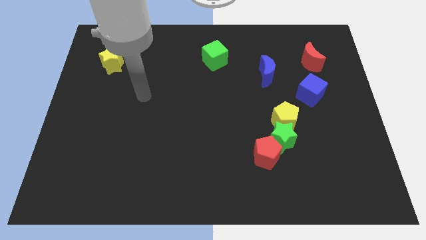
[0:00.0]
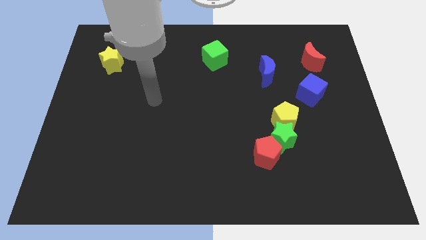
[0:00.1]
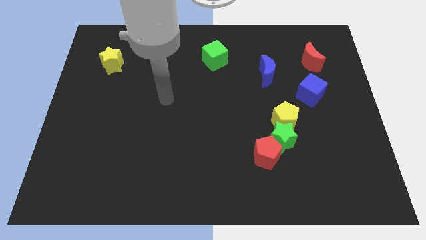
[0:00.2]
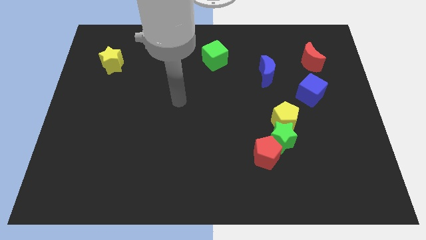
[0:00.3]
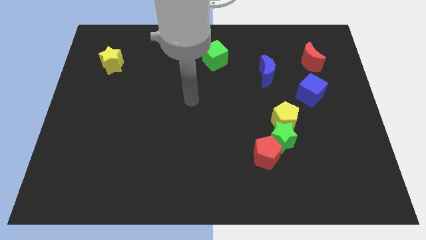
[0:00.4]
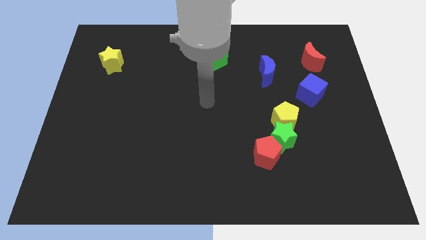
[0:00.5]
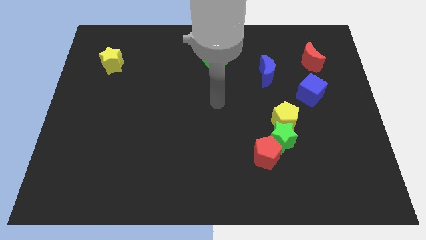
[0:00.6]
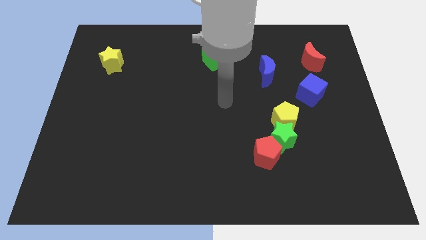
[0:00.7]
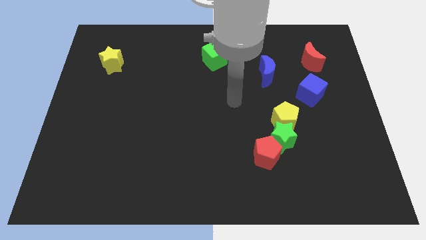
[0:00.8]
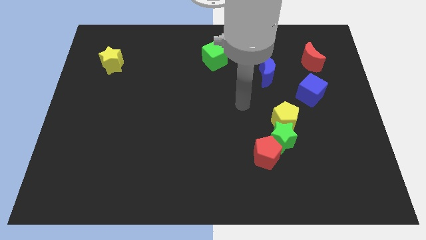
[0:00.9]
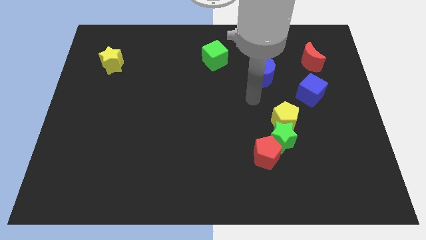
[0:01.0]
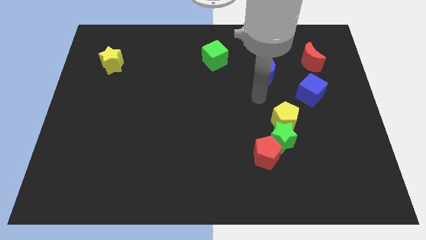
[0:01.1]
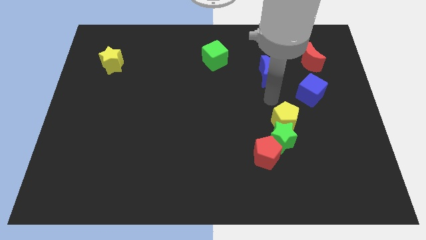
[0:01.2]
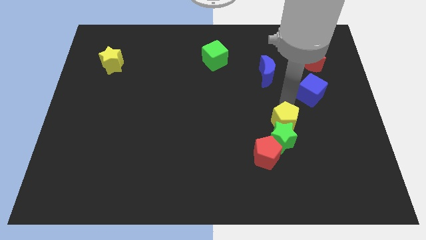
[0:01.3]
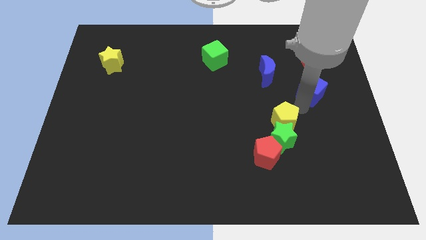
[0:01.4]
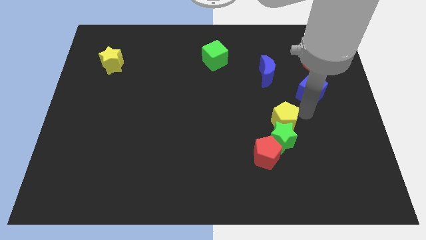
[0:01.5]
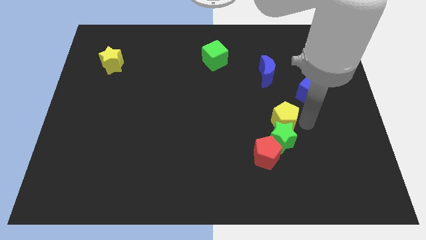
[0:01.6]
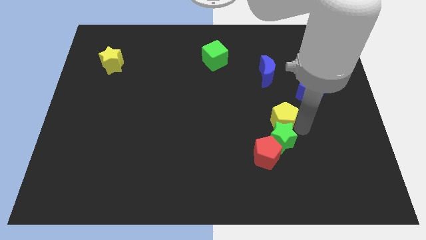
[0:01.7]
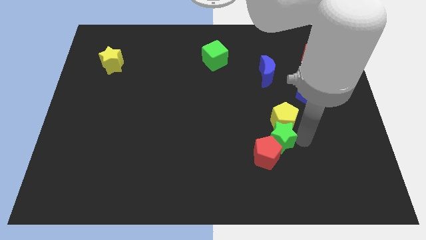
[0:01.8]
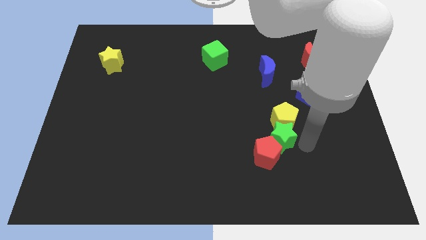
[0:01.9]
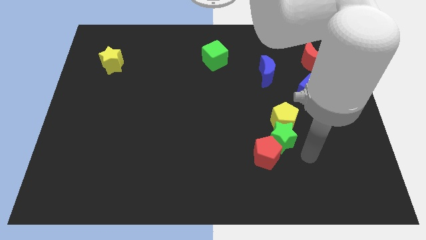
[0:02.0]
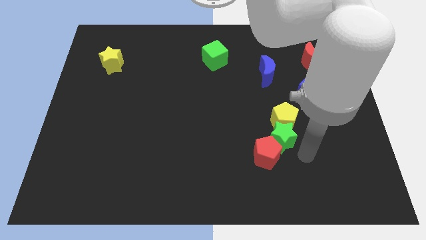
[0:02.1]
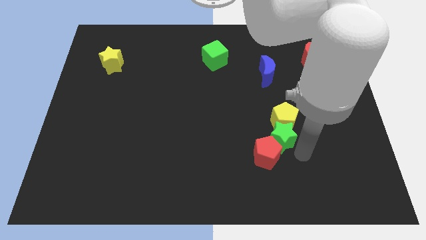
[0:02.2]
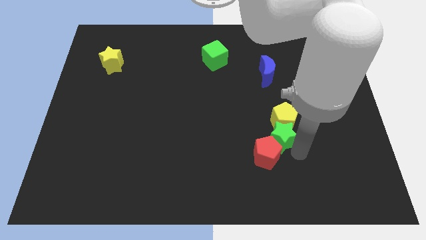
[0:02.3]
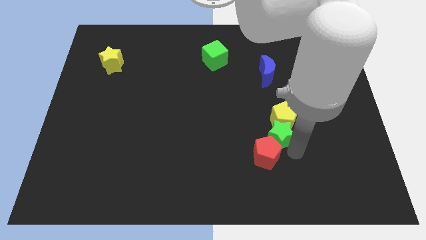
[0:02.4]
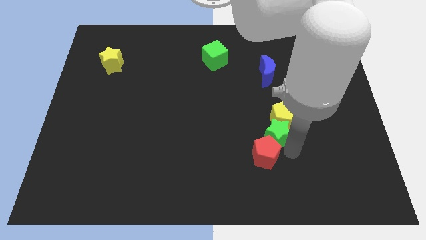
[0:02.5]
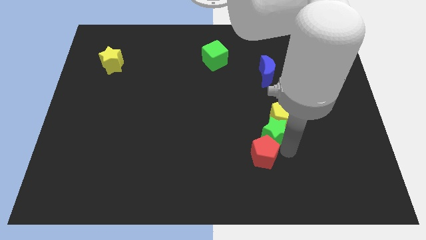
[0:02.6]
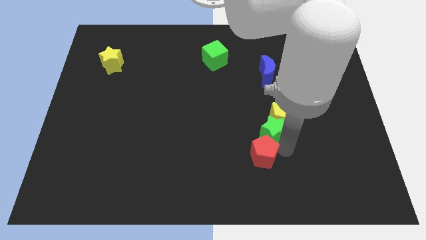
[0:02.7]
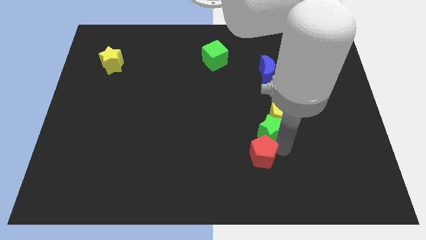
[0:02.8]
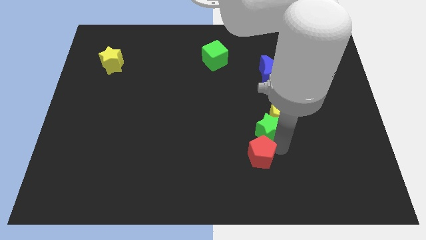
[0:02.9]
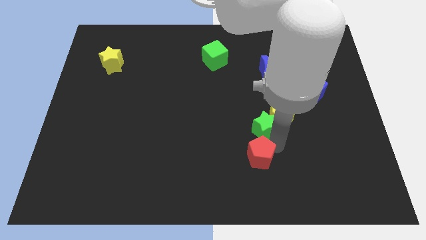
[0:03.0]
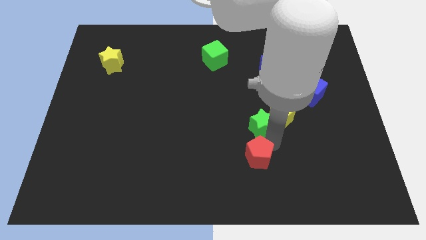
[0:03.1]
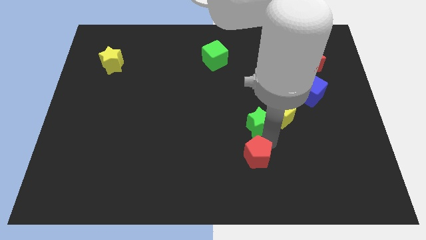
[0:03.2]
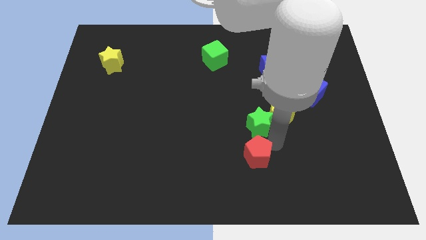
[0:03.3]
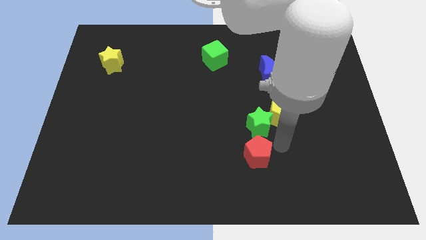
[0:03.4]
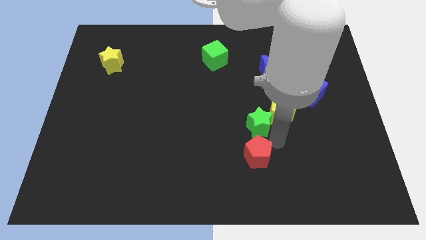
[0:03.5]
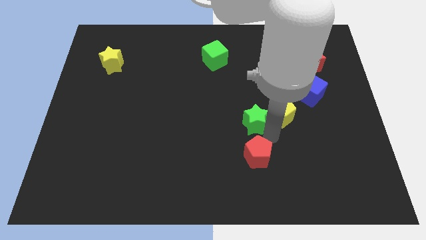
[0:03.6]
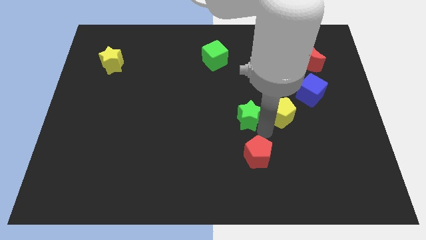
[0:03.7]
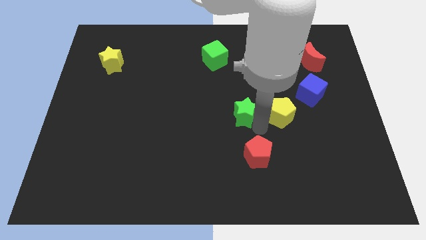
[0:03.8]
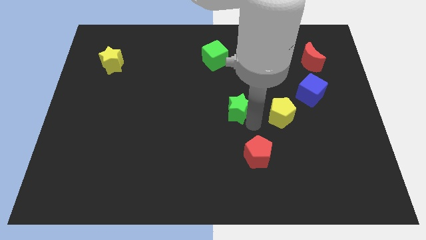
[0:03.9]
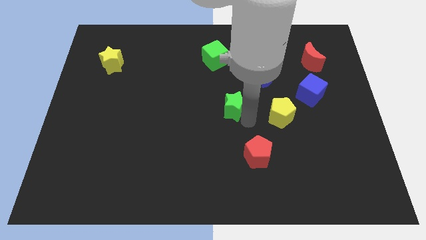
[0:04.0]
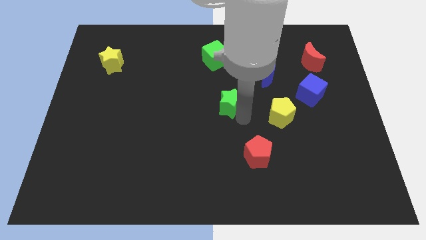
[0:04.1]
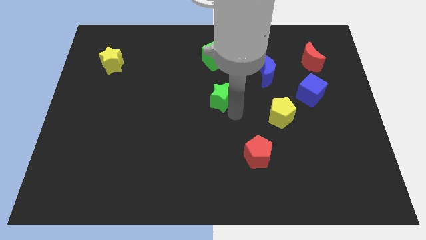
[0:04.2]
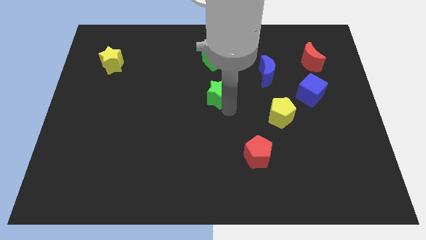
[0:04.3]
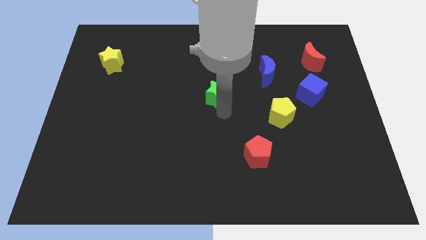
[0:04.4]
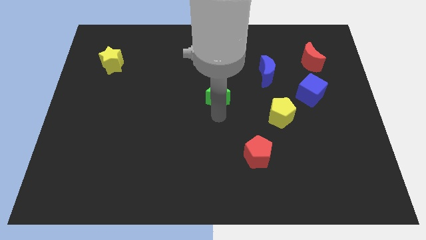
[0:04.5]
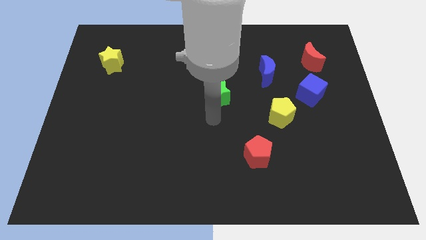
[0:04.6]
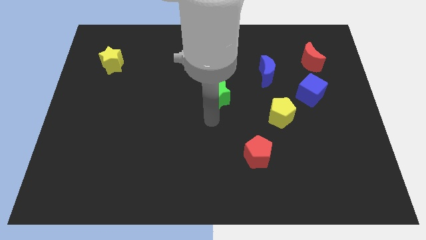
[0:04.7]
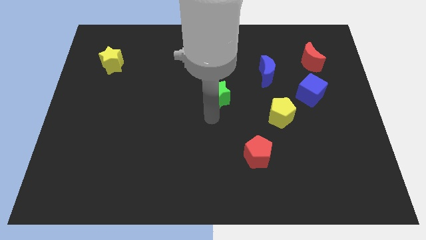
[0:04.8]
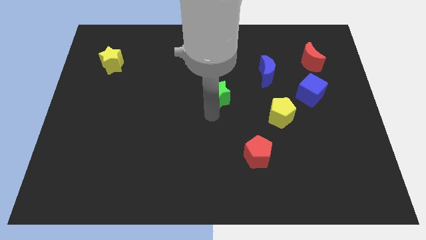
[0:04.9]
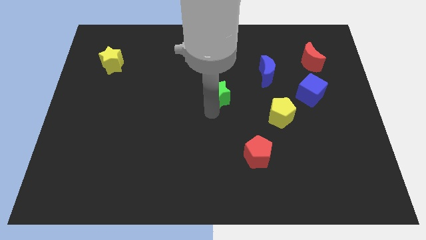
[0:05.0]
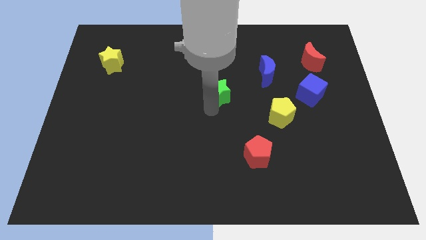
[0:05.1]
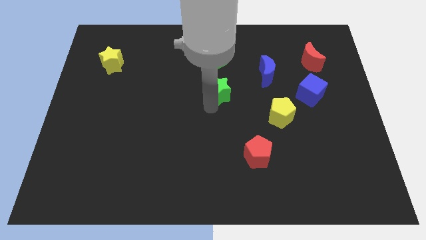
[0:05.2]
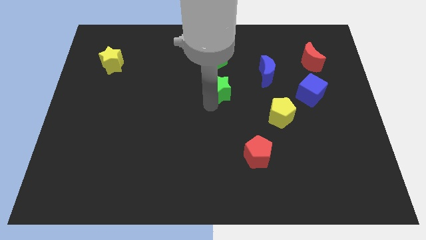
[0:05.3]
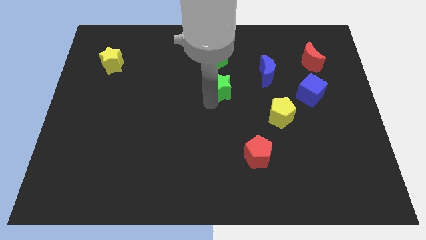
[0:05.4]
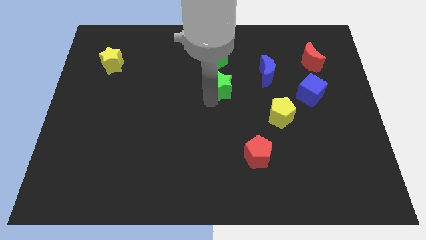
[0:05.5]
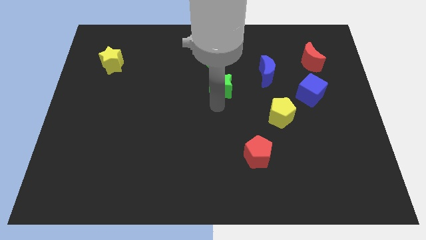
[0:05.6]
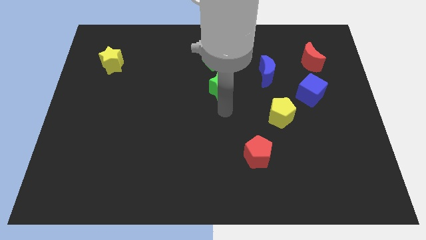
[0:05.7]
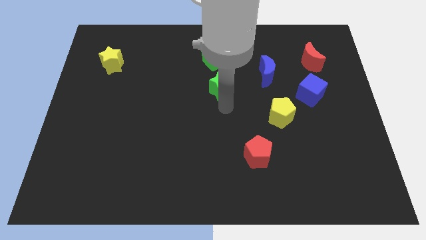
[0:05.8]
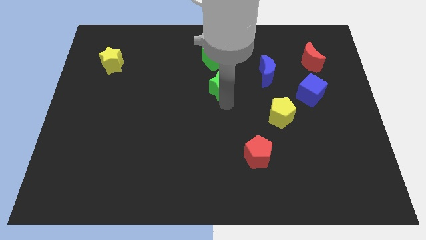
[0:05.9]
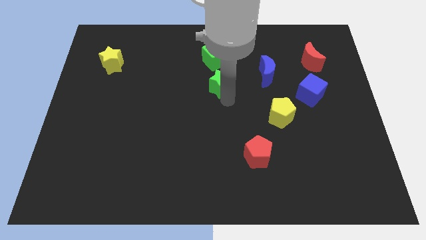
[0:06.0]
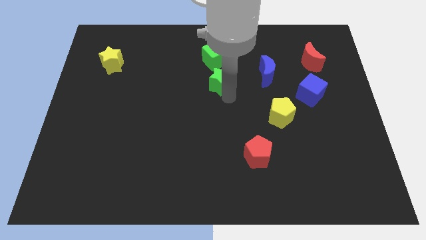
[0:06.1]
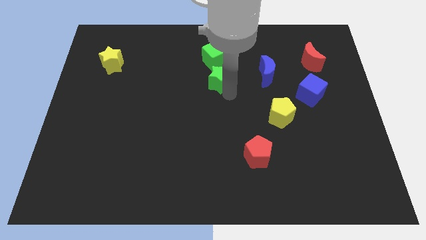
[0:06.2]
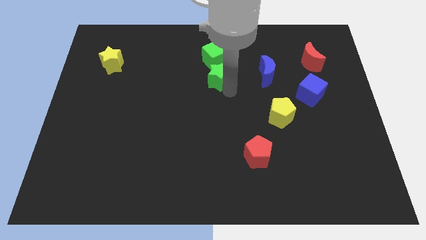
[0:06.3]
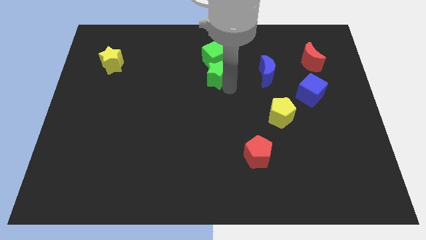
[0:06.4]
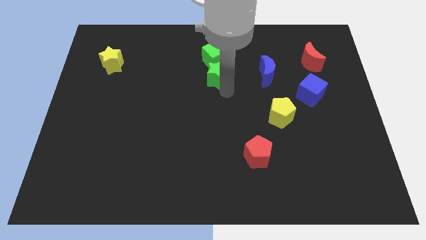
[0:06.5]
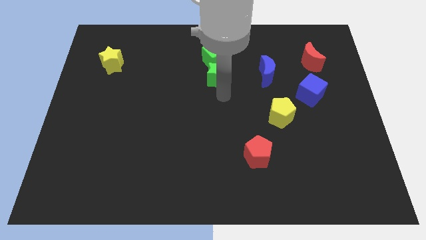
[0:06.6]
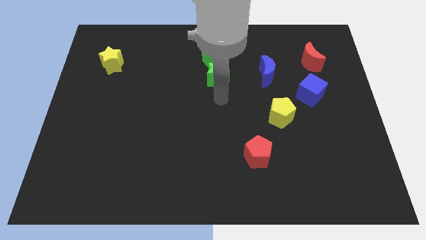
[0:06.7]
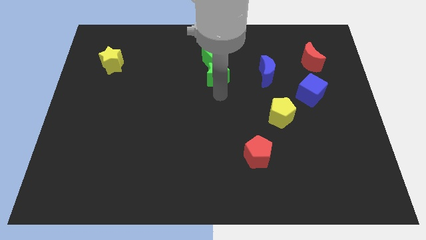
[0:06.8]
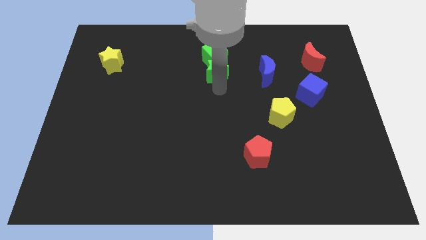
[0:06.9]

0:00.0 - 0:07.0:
put the green star next to the green cube
